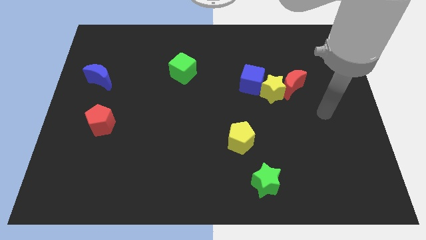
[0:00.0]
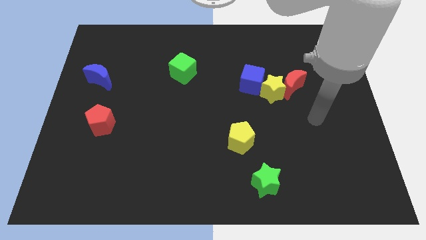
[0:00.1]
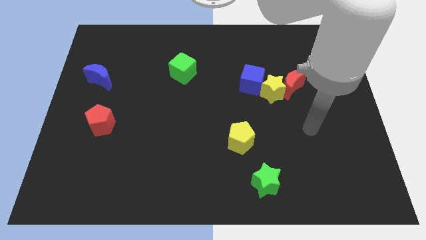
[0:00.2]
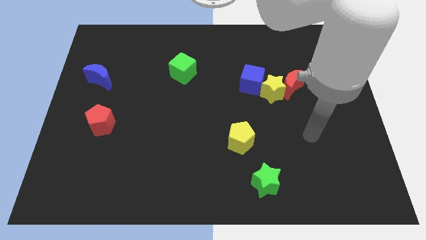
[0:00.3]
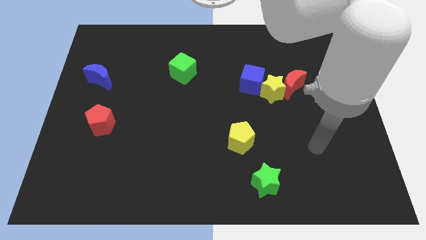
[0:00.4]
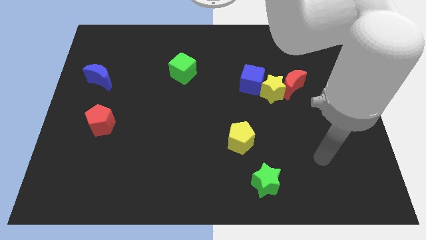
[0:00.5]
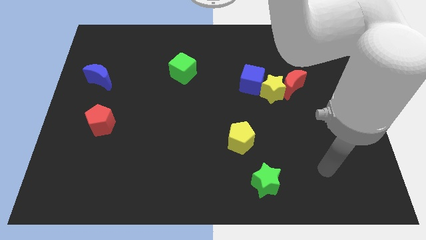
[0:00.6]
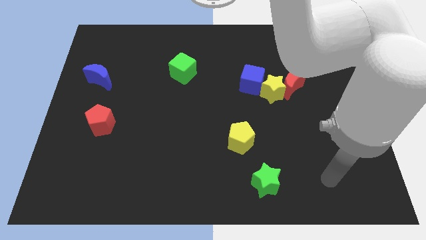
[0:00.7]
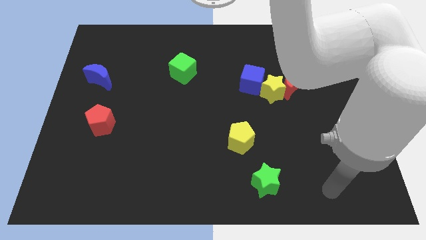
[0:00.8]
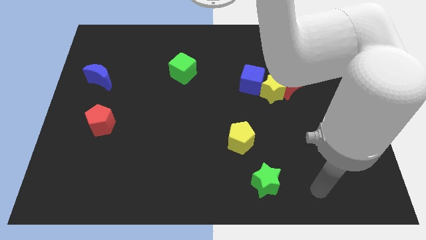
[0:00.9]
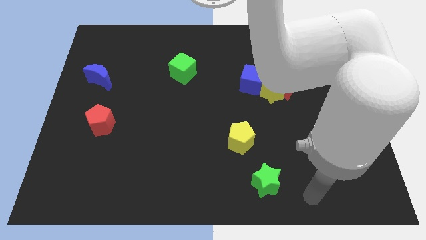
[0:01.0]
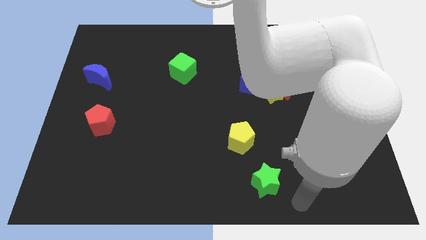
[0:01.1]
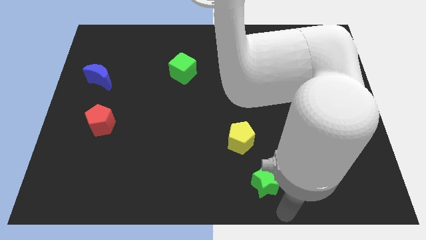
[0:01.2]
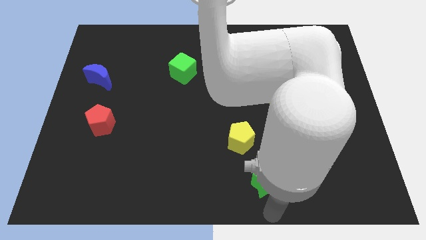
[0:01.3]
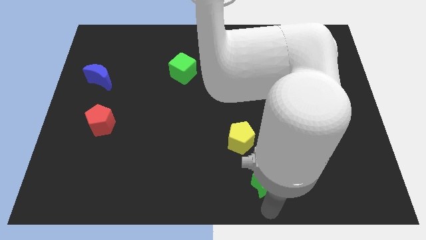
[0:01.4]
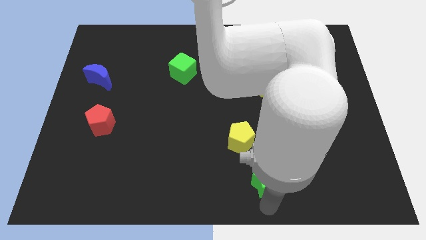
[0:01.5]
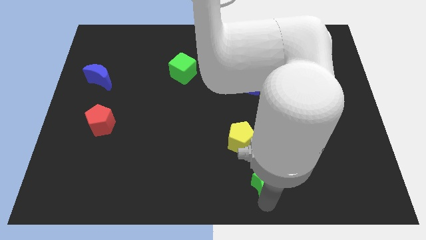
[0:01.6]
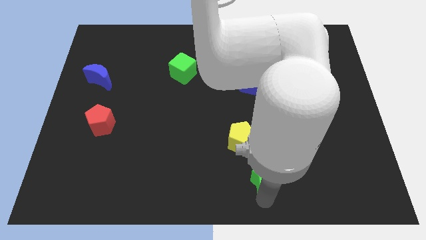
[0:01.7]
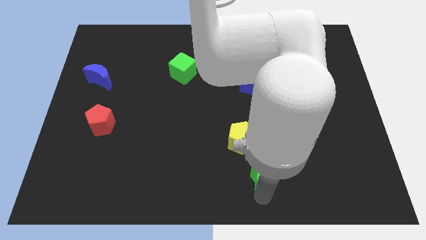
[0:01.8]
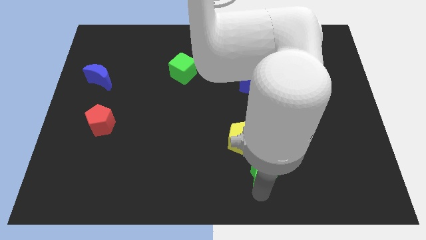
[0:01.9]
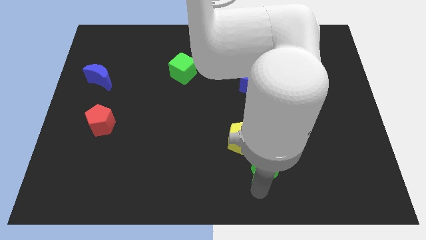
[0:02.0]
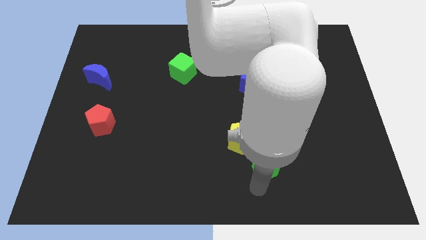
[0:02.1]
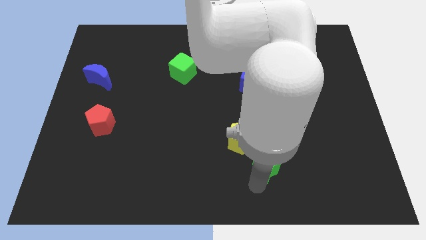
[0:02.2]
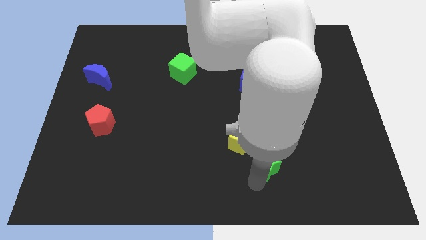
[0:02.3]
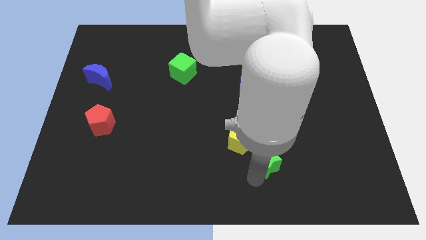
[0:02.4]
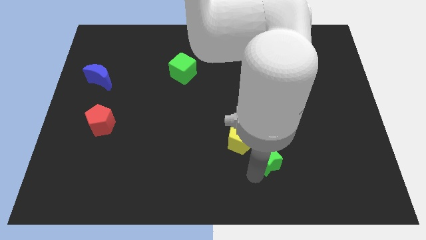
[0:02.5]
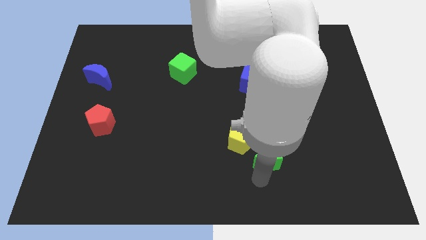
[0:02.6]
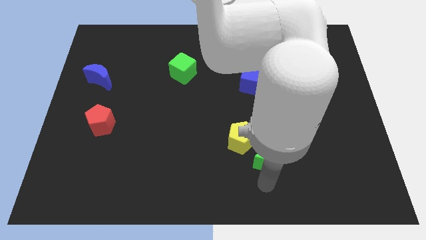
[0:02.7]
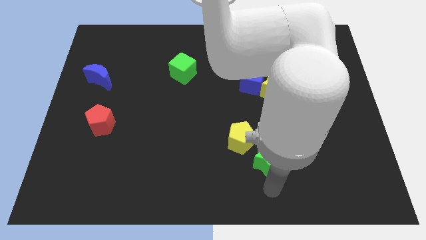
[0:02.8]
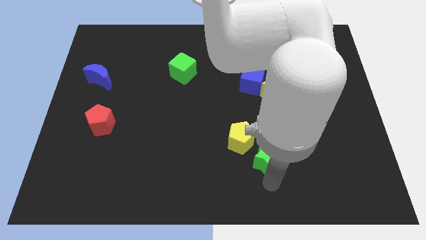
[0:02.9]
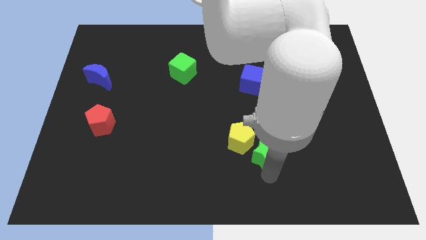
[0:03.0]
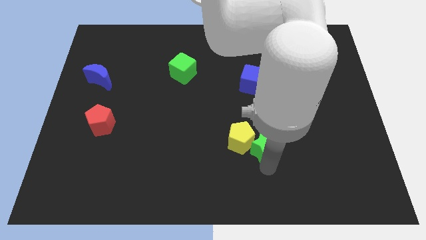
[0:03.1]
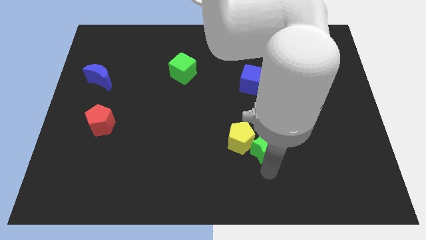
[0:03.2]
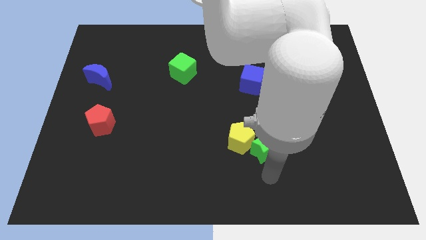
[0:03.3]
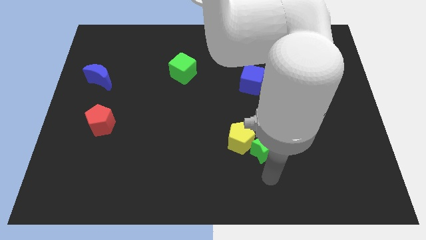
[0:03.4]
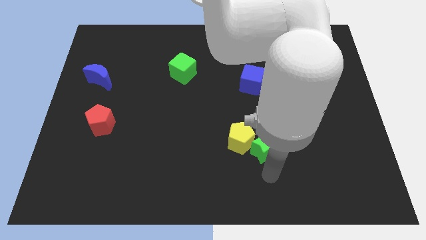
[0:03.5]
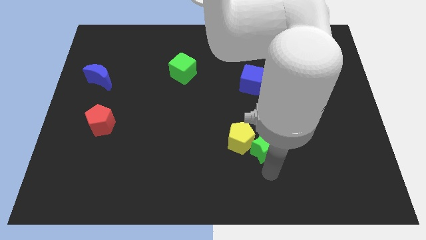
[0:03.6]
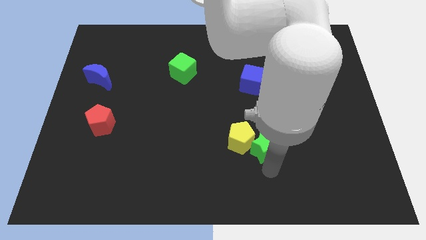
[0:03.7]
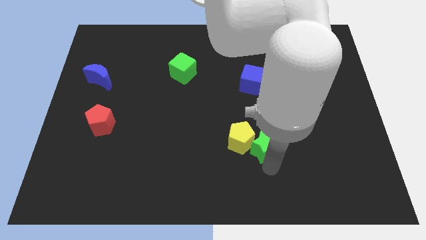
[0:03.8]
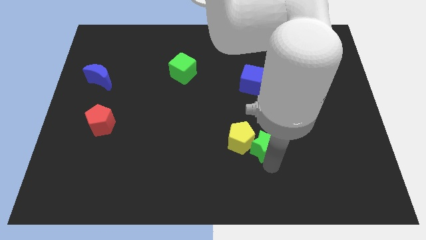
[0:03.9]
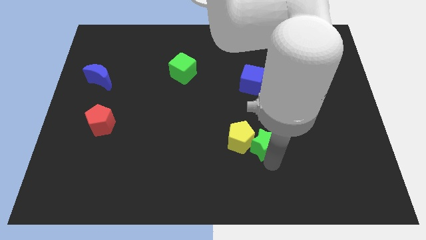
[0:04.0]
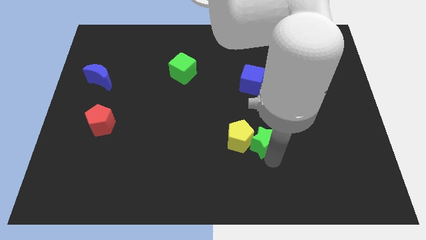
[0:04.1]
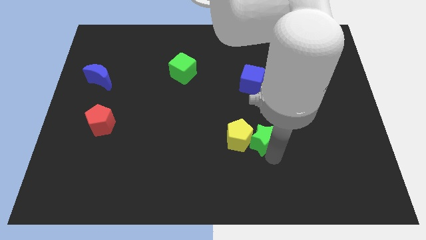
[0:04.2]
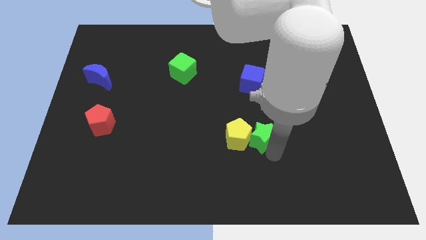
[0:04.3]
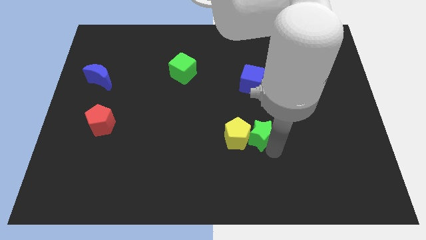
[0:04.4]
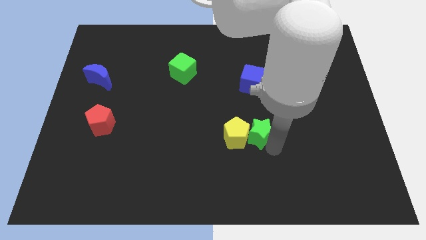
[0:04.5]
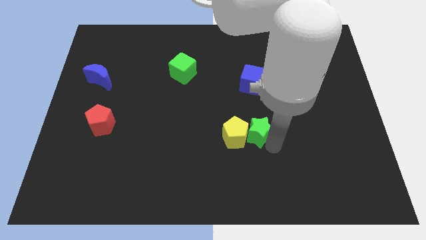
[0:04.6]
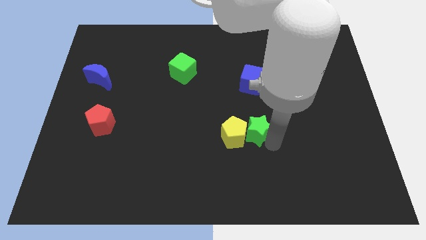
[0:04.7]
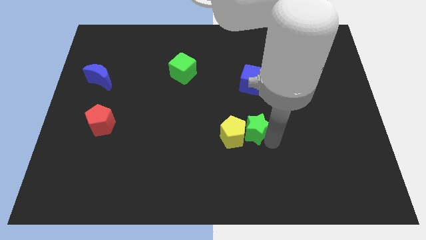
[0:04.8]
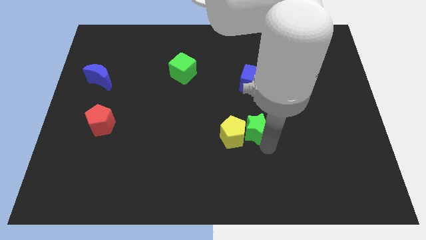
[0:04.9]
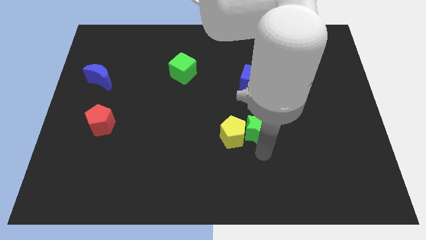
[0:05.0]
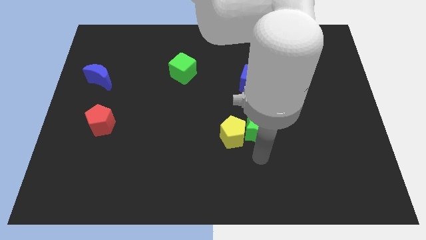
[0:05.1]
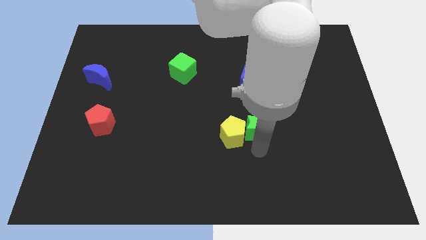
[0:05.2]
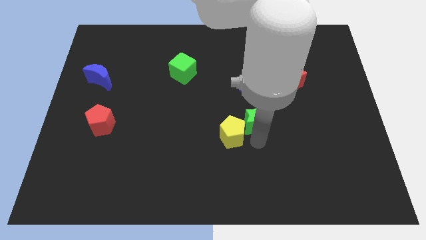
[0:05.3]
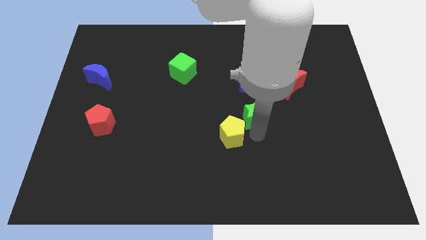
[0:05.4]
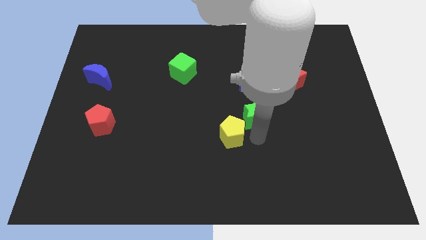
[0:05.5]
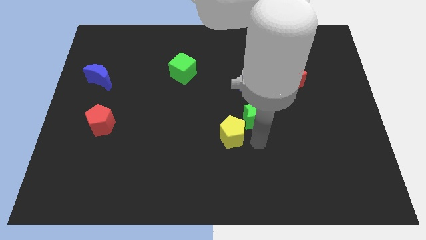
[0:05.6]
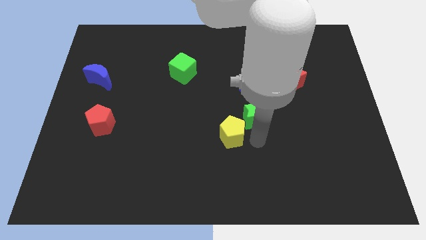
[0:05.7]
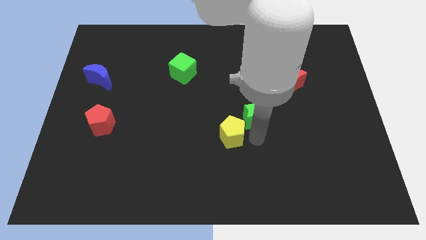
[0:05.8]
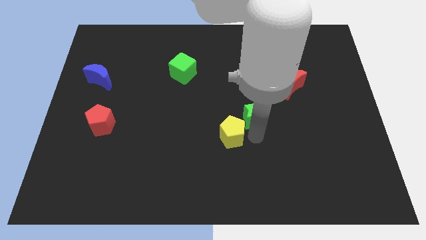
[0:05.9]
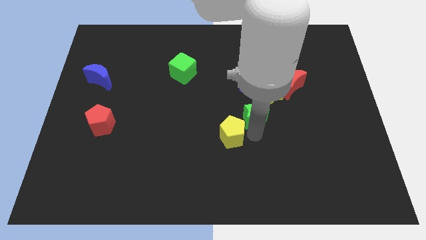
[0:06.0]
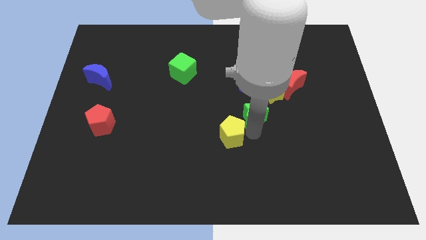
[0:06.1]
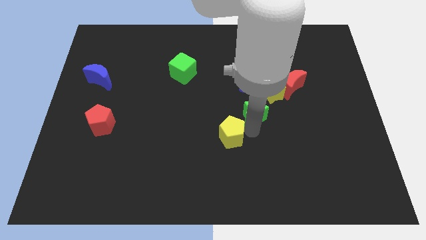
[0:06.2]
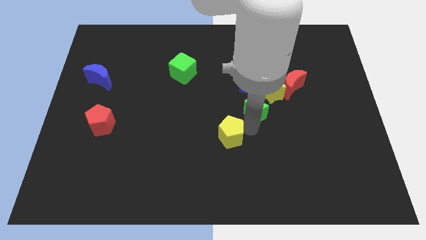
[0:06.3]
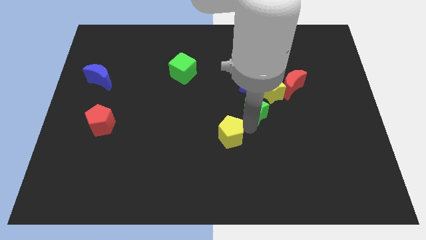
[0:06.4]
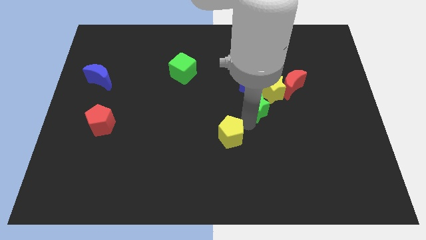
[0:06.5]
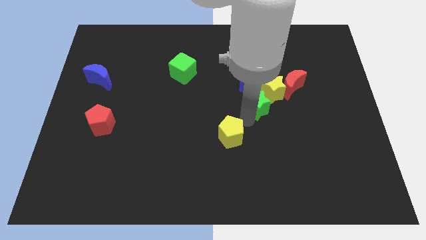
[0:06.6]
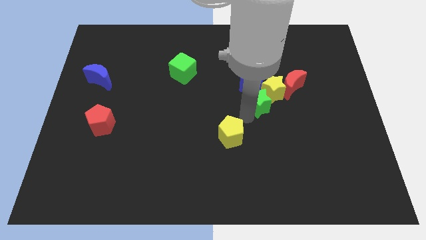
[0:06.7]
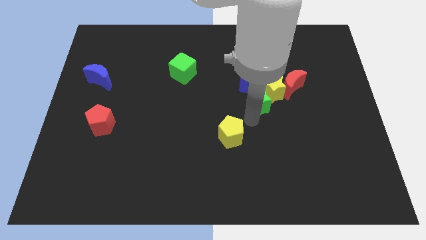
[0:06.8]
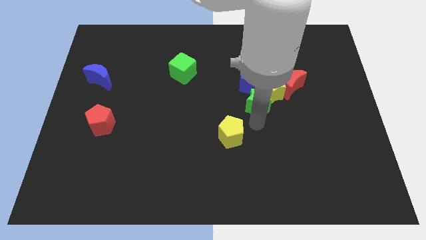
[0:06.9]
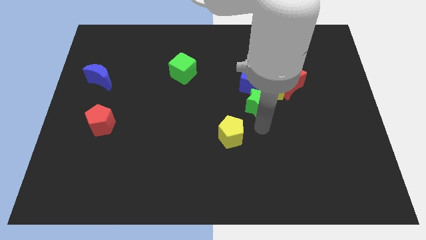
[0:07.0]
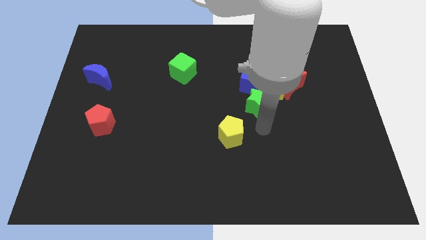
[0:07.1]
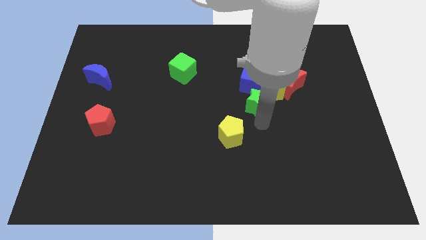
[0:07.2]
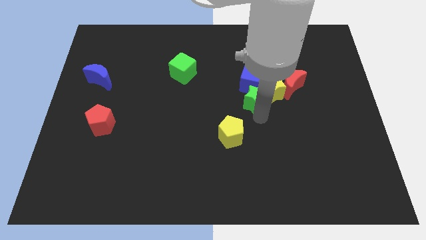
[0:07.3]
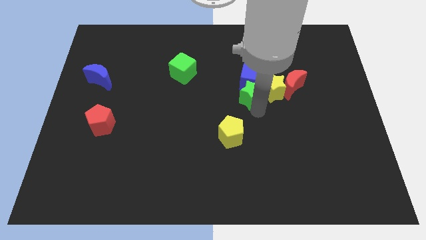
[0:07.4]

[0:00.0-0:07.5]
push the green star next to the blue cube
